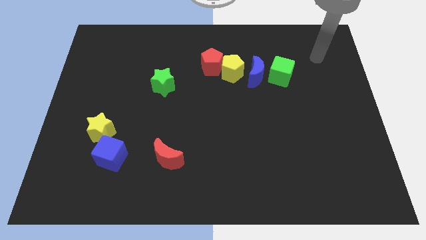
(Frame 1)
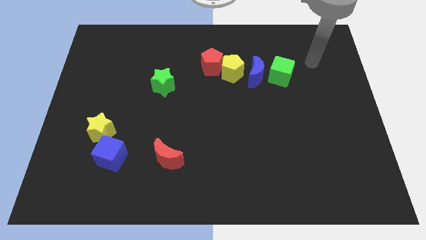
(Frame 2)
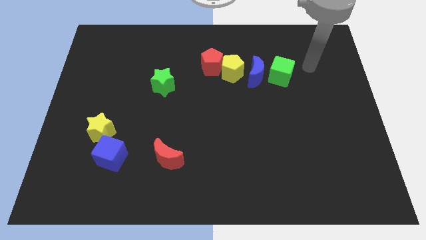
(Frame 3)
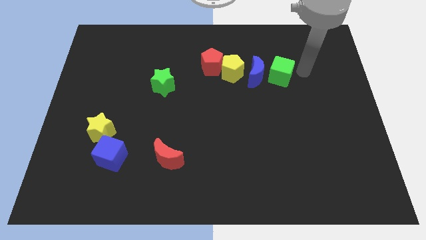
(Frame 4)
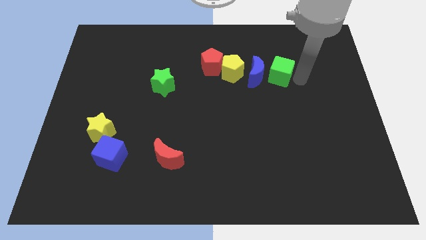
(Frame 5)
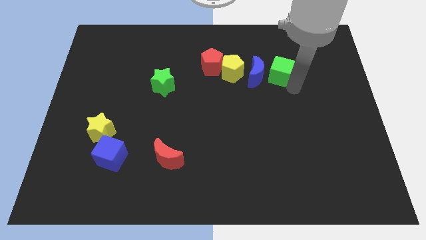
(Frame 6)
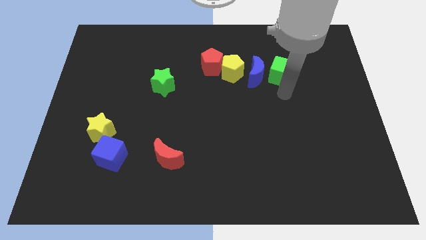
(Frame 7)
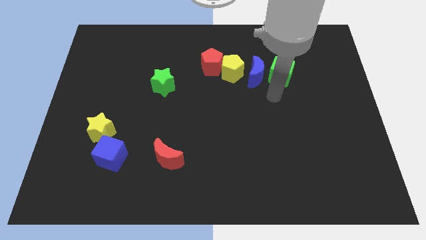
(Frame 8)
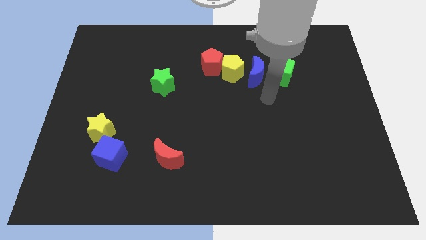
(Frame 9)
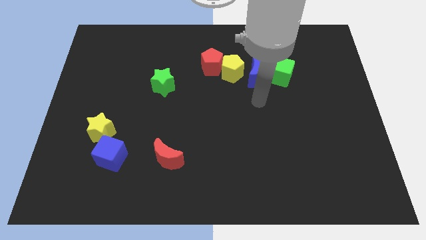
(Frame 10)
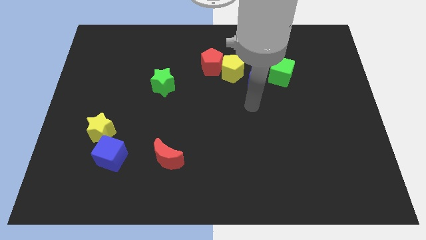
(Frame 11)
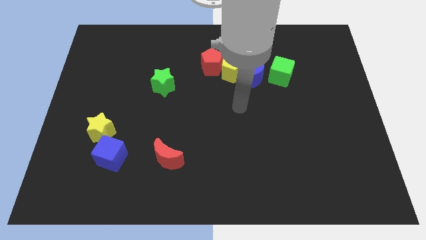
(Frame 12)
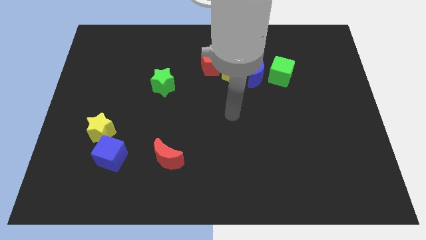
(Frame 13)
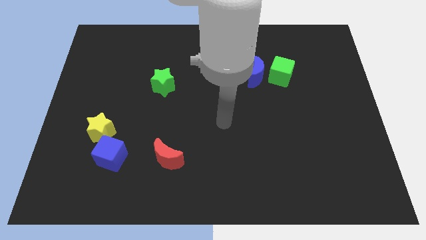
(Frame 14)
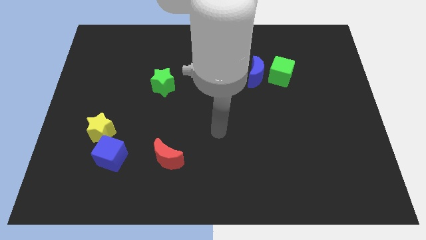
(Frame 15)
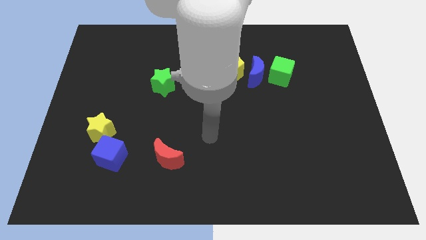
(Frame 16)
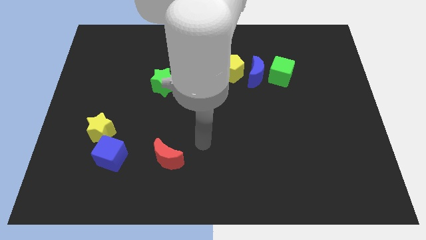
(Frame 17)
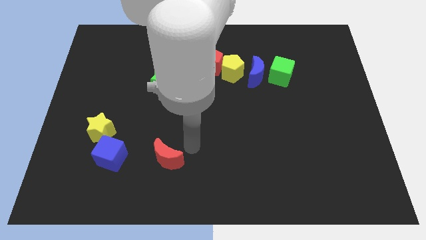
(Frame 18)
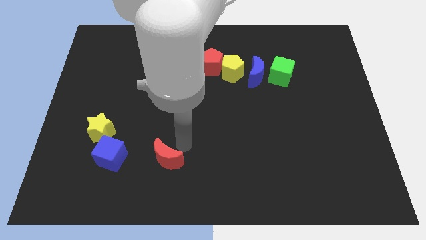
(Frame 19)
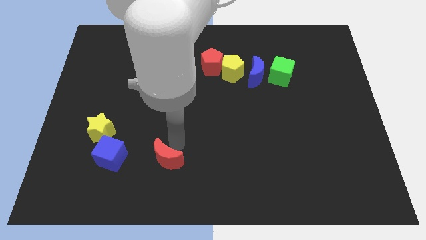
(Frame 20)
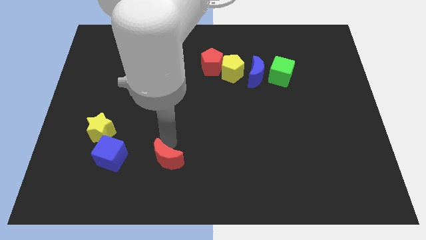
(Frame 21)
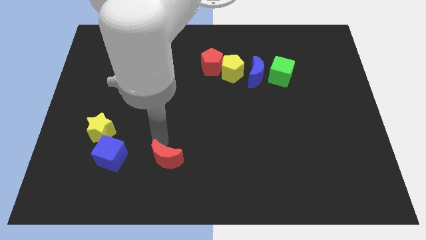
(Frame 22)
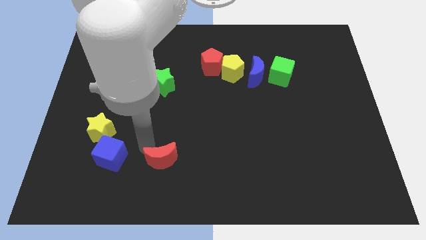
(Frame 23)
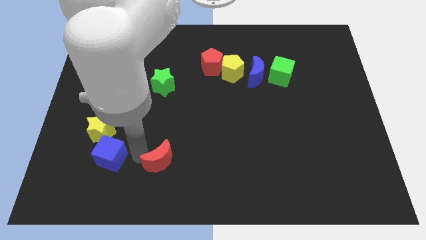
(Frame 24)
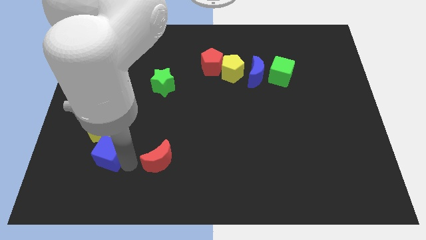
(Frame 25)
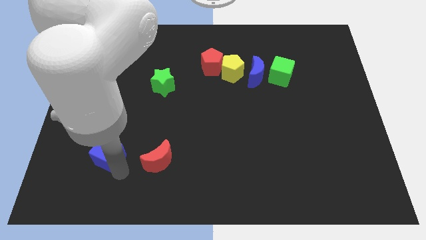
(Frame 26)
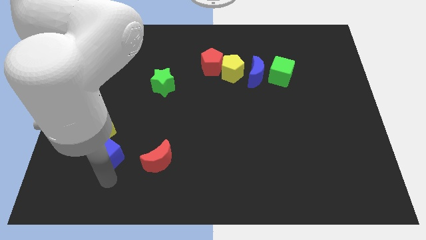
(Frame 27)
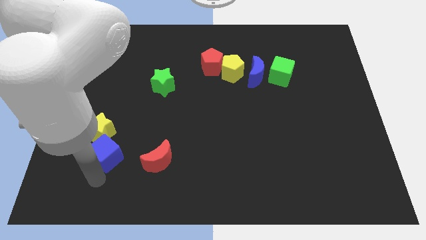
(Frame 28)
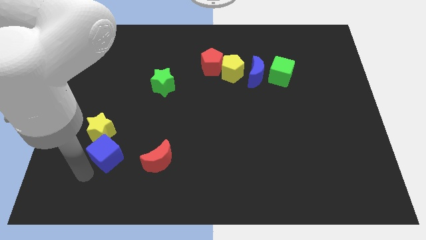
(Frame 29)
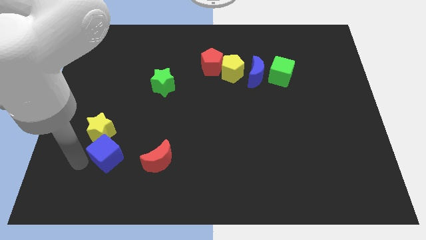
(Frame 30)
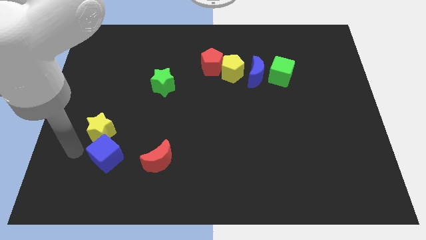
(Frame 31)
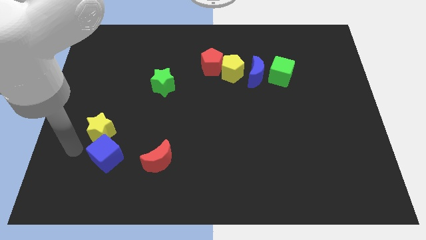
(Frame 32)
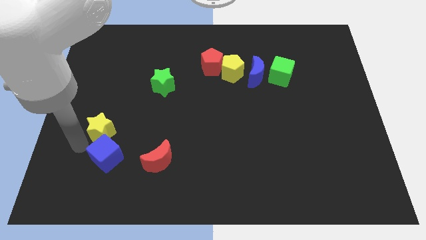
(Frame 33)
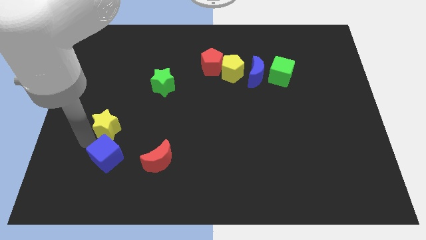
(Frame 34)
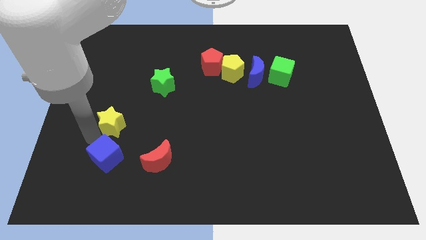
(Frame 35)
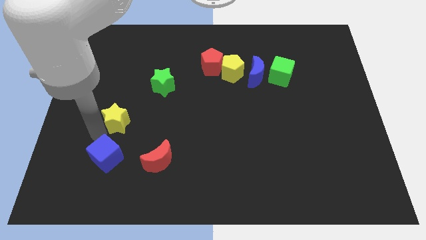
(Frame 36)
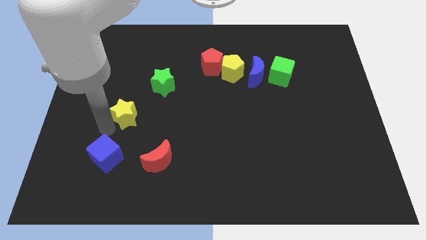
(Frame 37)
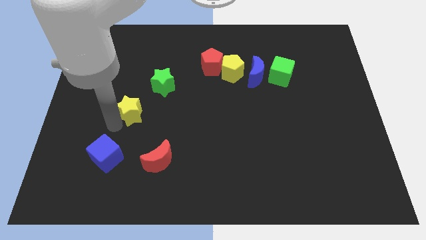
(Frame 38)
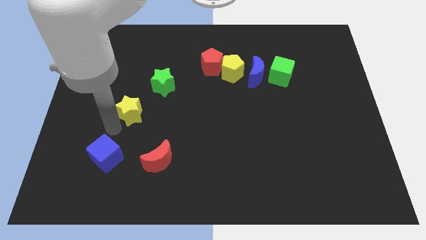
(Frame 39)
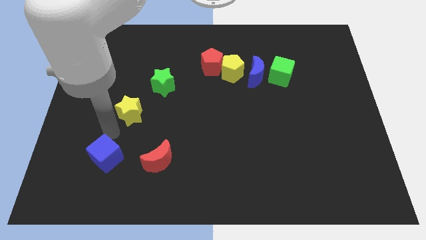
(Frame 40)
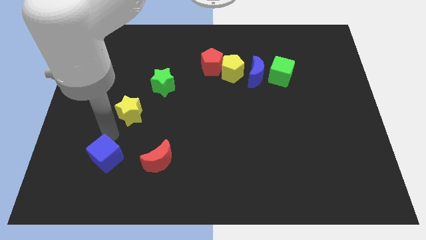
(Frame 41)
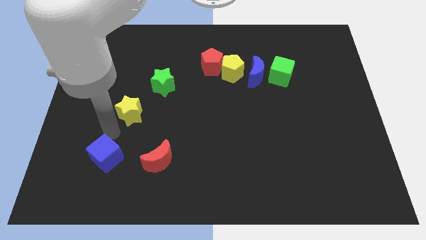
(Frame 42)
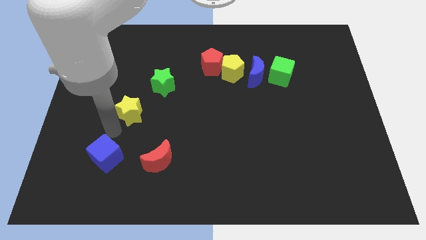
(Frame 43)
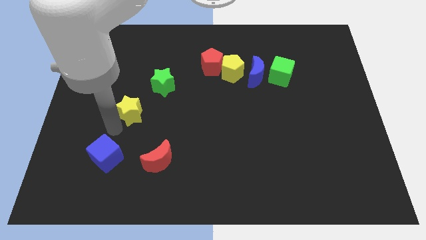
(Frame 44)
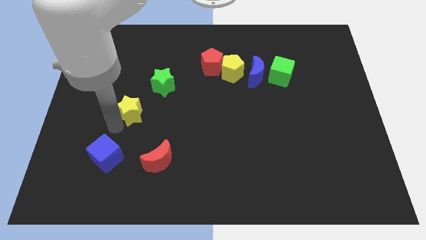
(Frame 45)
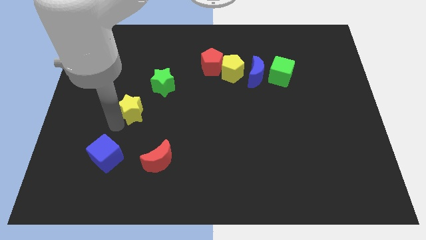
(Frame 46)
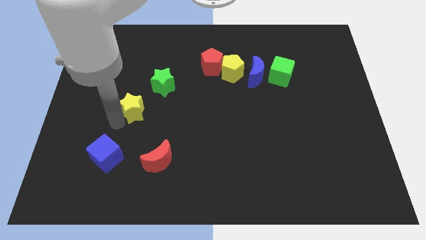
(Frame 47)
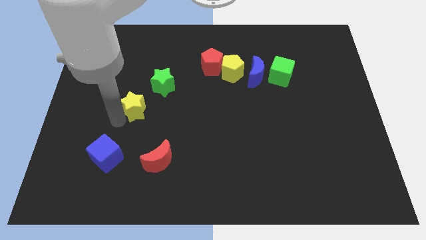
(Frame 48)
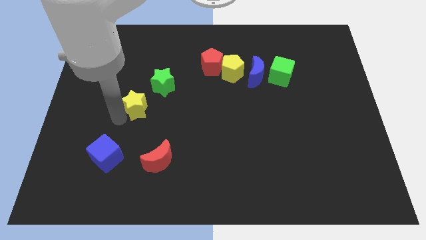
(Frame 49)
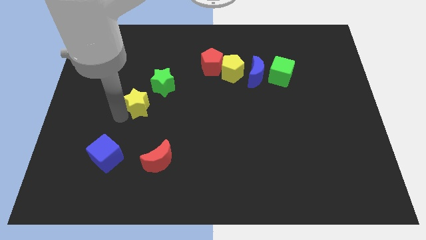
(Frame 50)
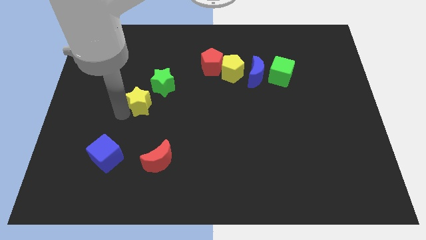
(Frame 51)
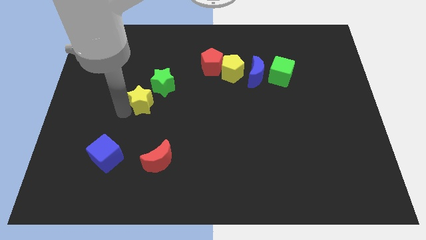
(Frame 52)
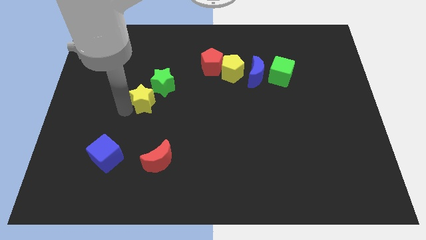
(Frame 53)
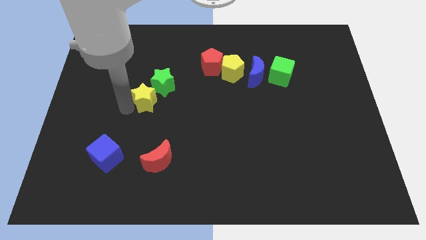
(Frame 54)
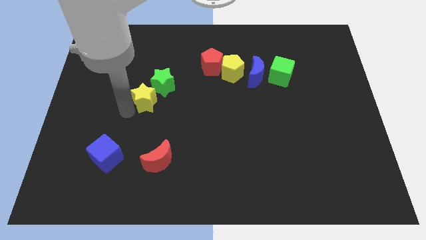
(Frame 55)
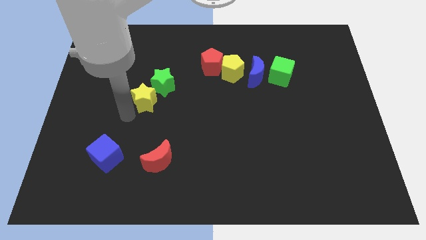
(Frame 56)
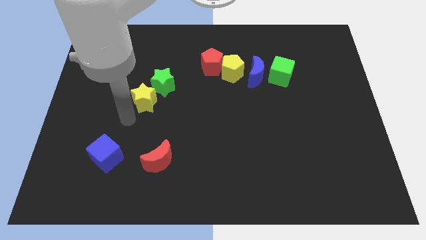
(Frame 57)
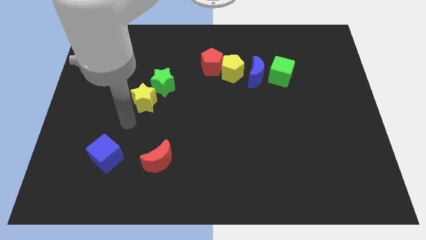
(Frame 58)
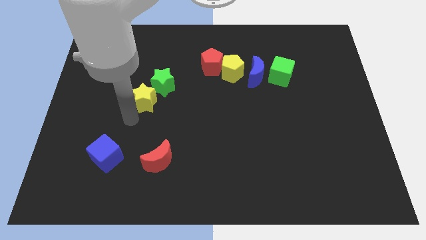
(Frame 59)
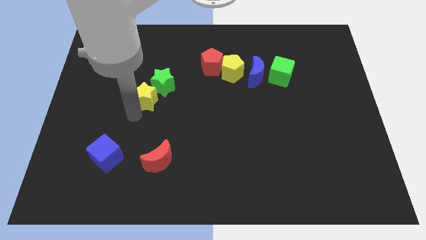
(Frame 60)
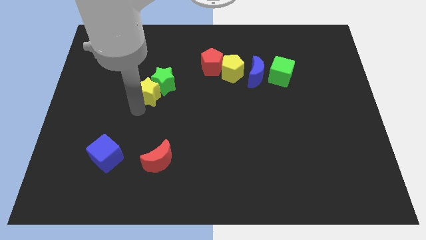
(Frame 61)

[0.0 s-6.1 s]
push the yellow star next to the green star

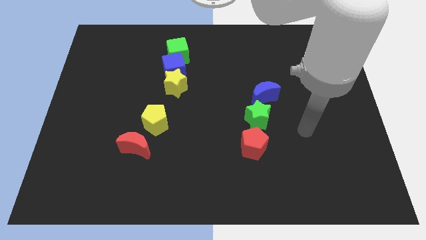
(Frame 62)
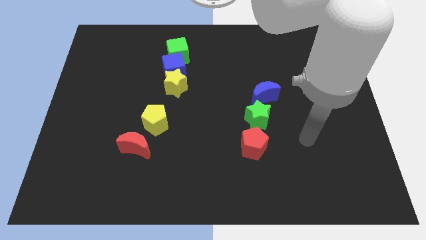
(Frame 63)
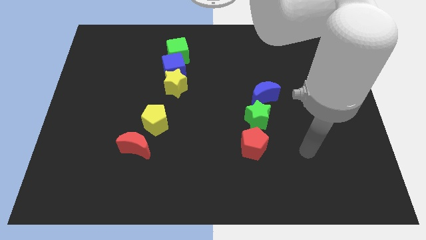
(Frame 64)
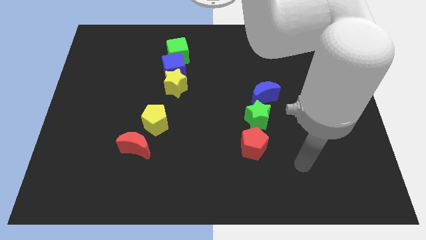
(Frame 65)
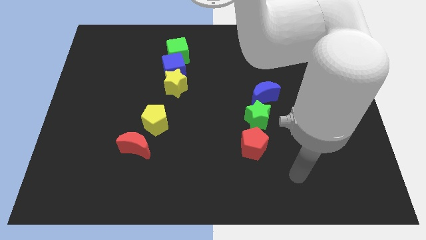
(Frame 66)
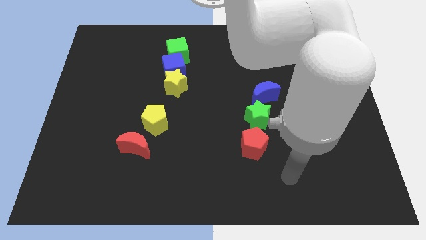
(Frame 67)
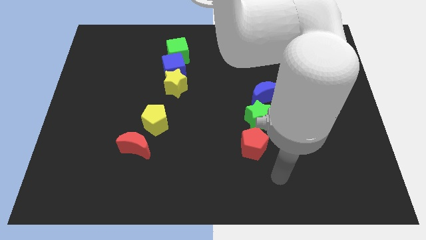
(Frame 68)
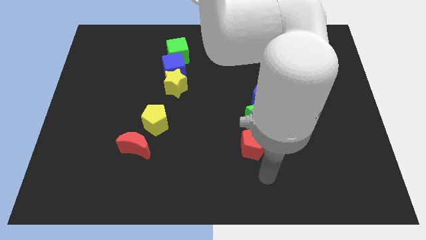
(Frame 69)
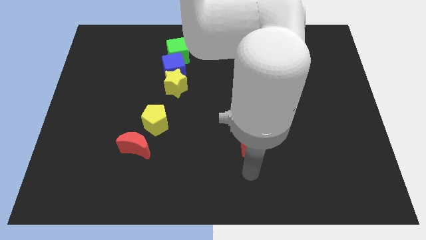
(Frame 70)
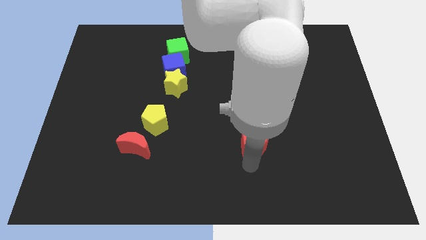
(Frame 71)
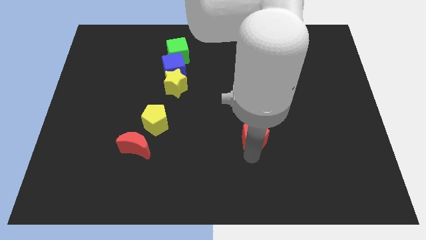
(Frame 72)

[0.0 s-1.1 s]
push the red pentagon to the green star
